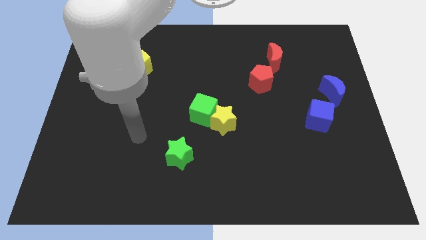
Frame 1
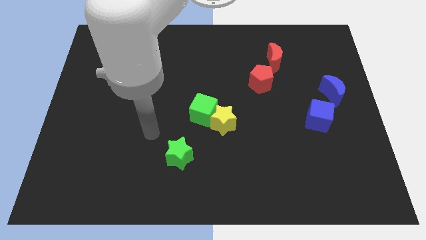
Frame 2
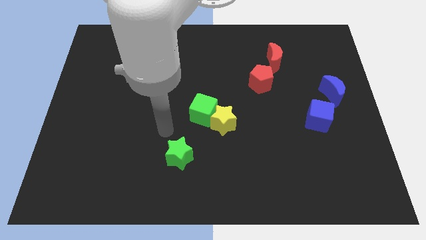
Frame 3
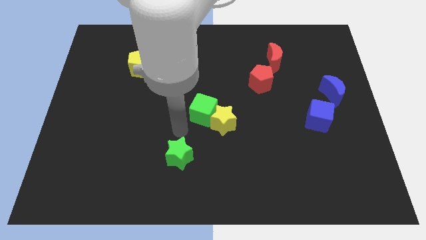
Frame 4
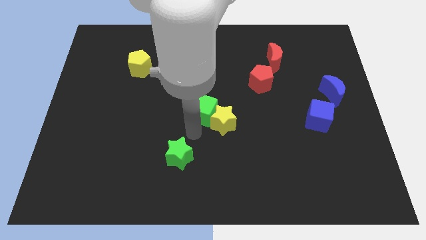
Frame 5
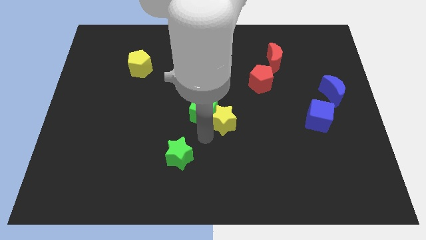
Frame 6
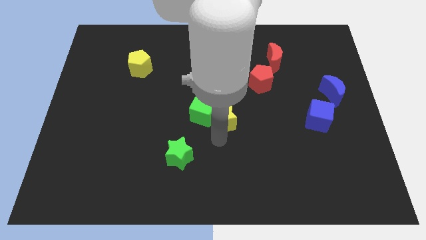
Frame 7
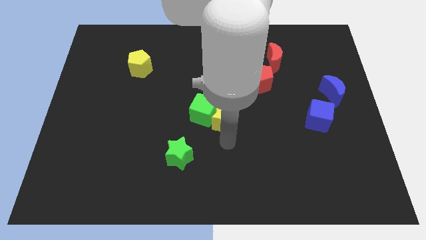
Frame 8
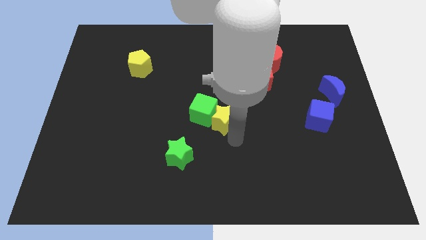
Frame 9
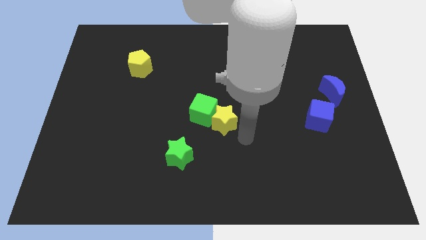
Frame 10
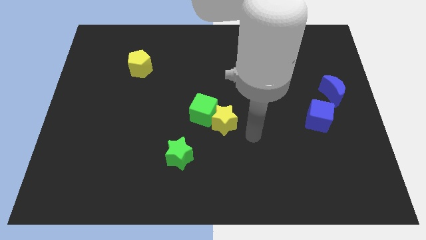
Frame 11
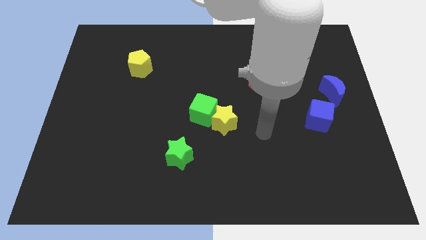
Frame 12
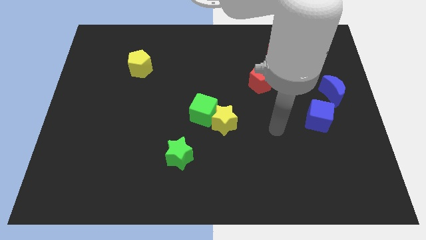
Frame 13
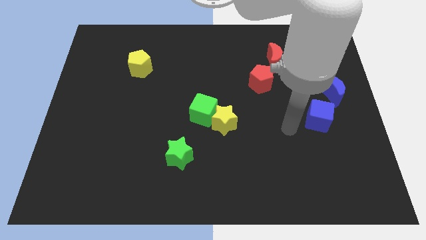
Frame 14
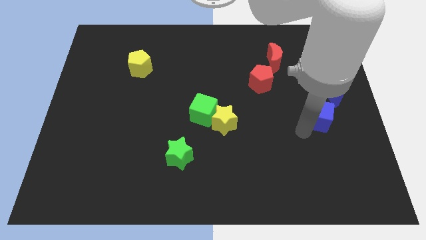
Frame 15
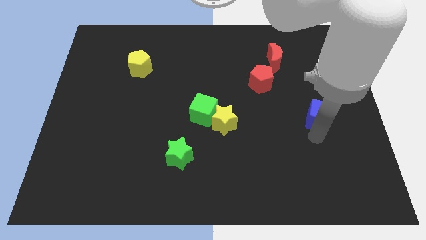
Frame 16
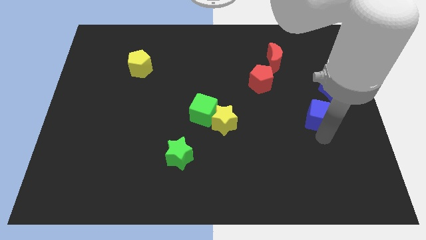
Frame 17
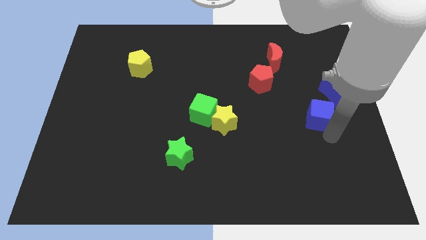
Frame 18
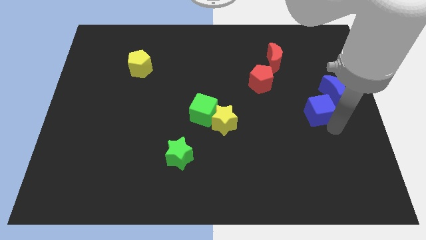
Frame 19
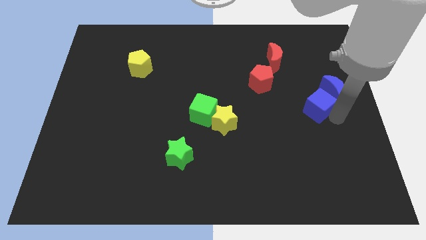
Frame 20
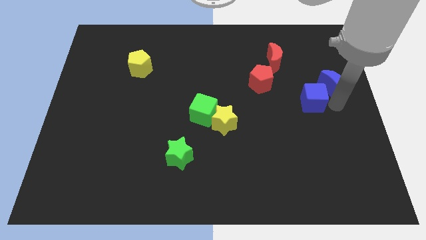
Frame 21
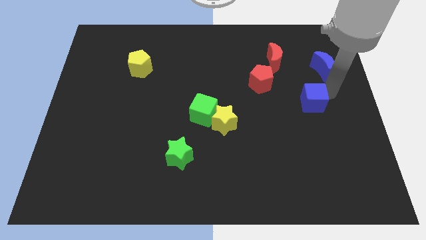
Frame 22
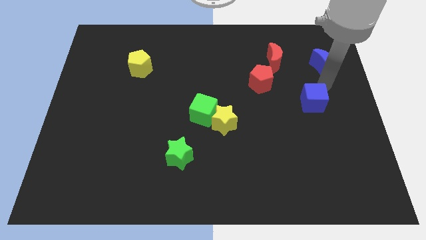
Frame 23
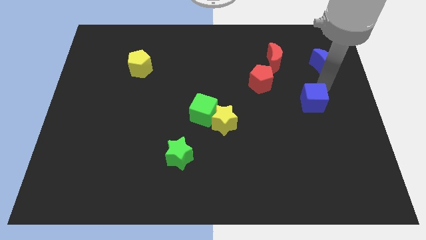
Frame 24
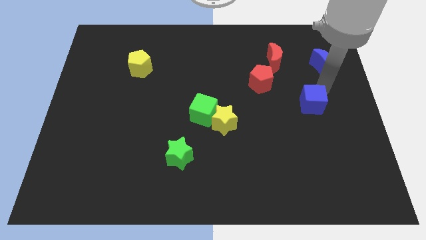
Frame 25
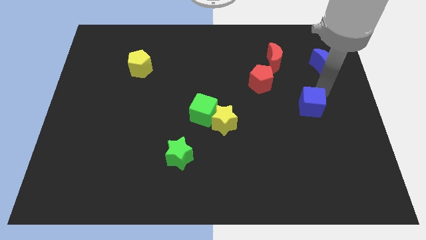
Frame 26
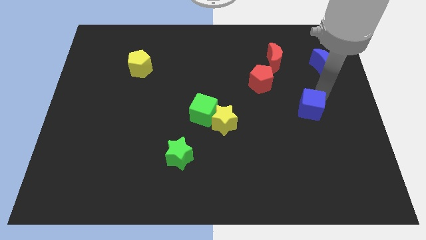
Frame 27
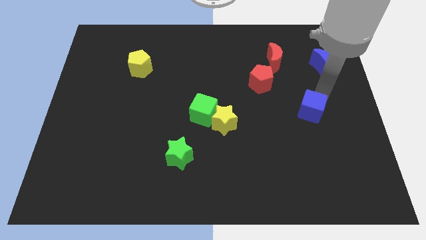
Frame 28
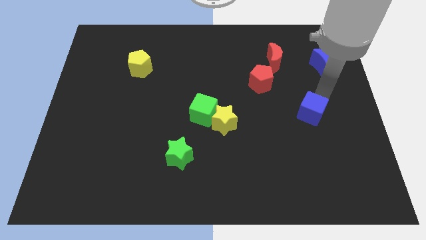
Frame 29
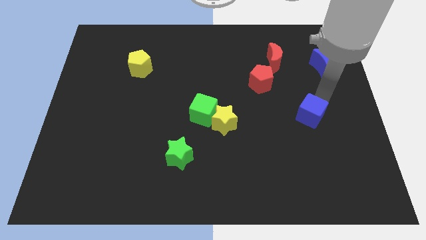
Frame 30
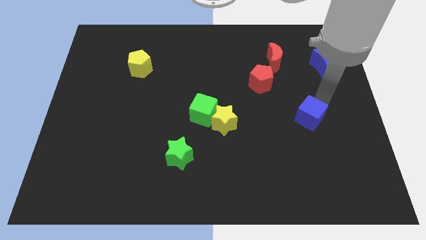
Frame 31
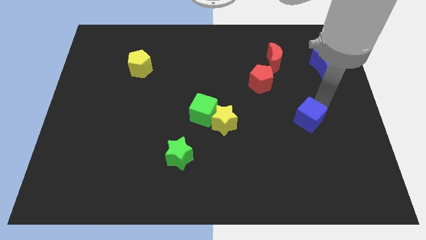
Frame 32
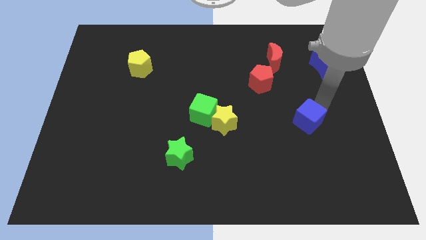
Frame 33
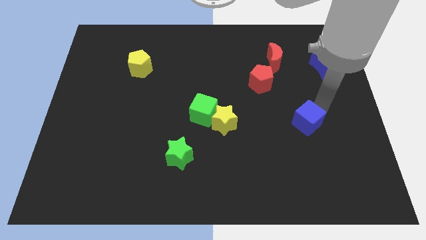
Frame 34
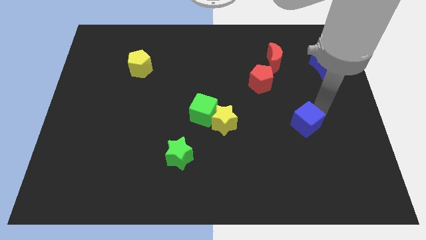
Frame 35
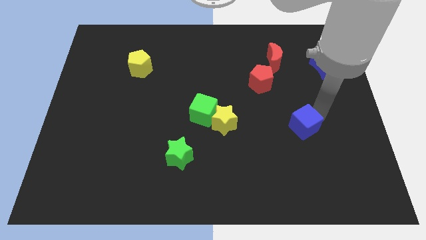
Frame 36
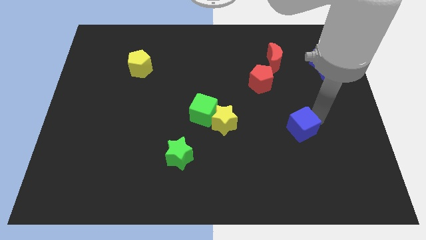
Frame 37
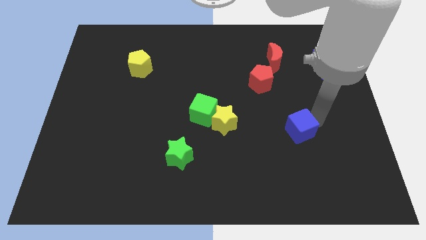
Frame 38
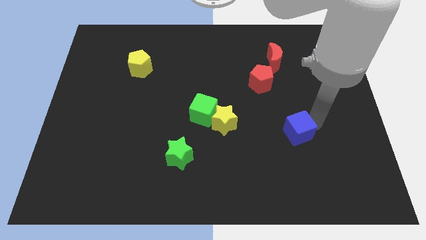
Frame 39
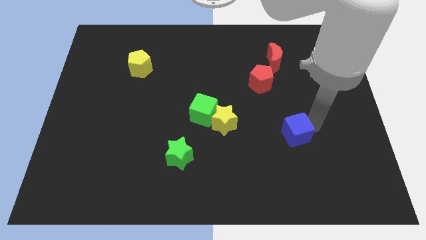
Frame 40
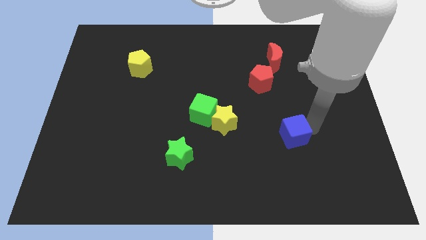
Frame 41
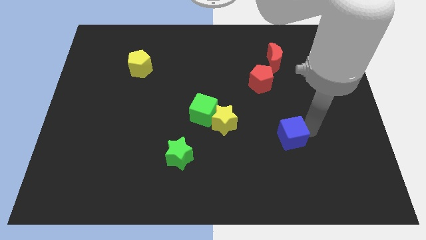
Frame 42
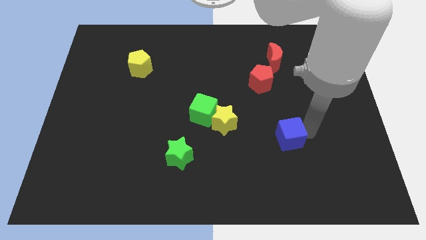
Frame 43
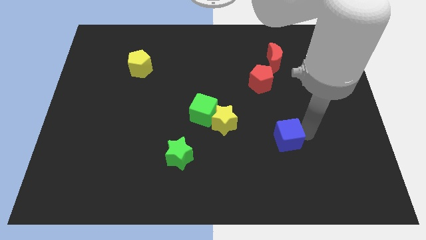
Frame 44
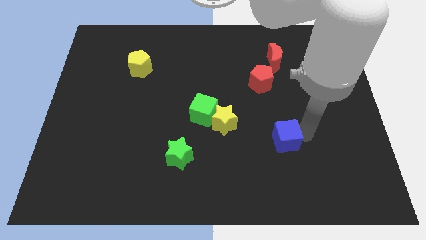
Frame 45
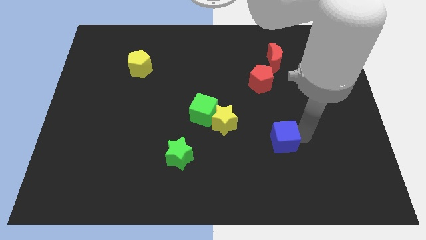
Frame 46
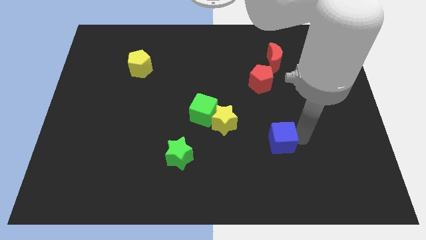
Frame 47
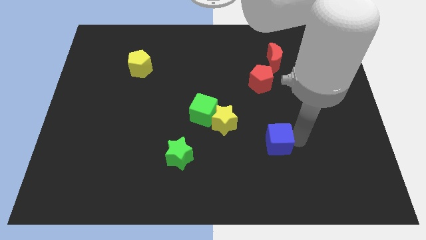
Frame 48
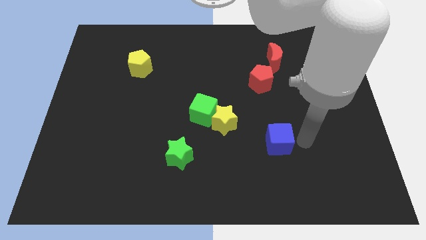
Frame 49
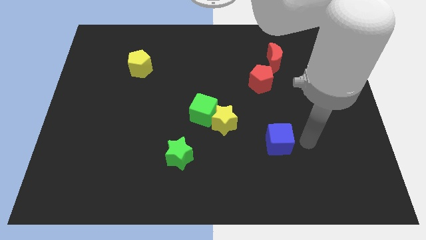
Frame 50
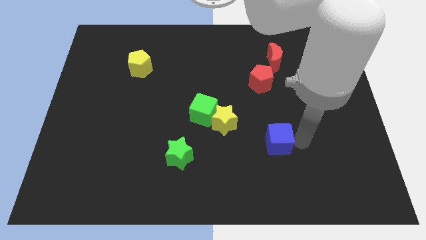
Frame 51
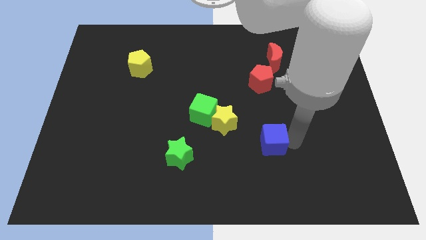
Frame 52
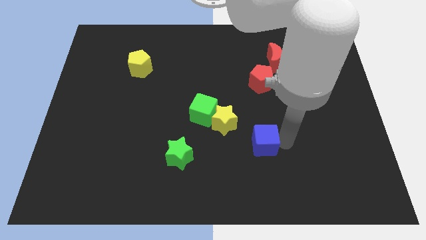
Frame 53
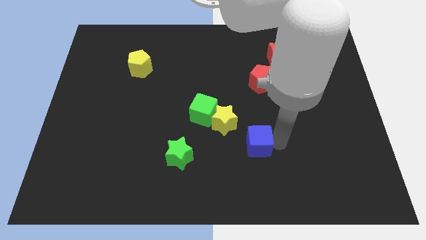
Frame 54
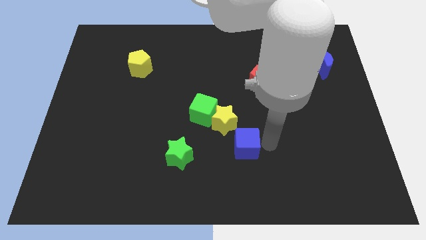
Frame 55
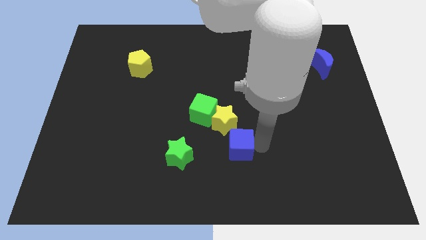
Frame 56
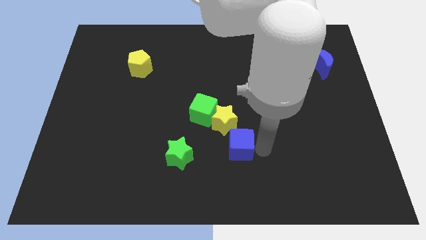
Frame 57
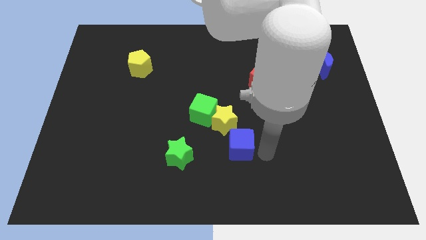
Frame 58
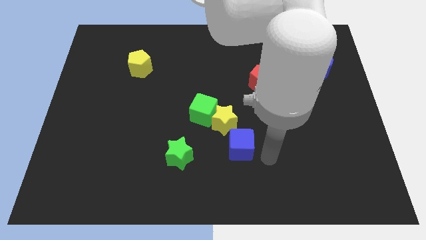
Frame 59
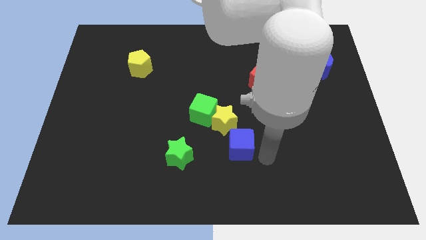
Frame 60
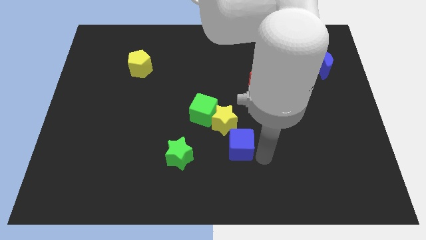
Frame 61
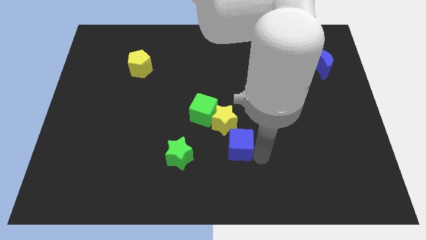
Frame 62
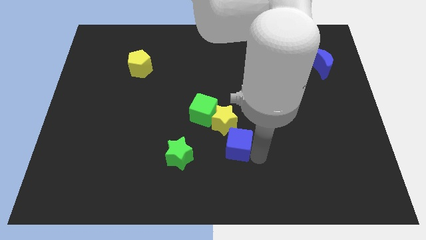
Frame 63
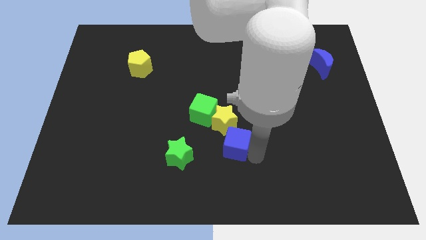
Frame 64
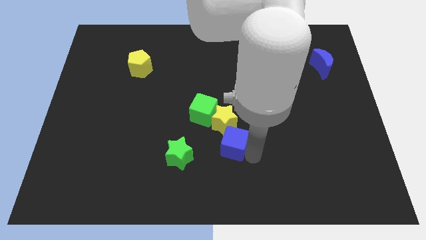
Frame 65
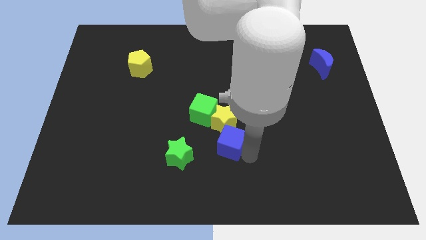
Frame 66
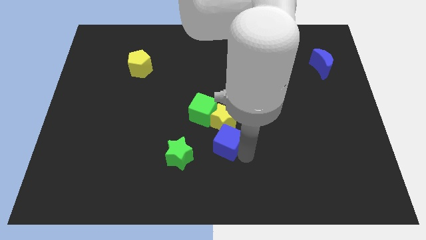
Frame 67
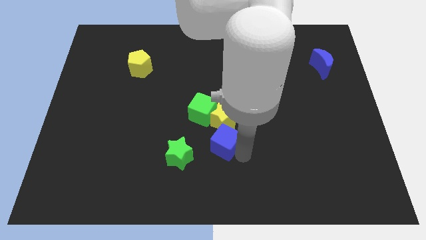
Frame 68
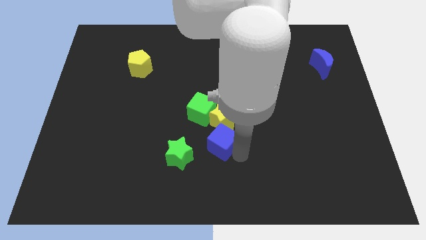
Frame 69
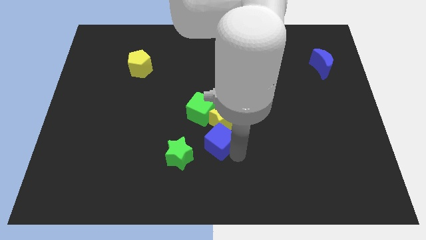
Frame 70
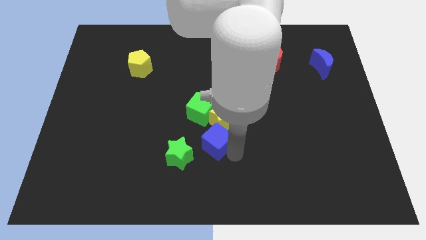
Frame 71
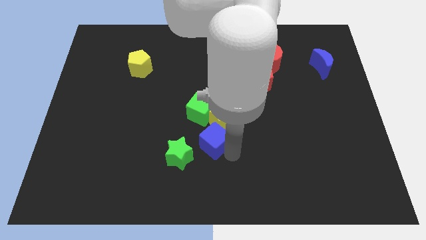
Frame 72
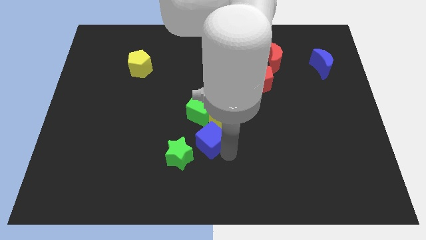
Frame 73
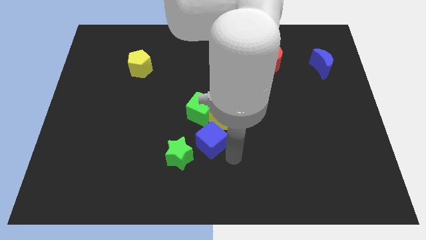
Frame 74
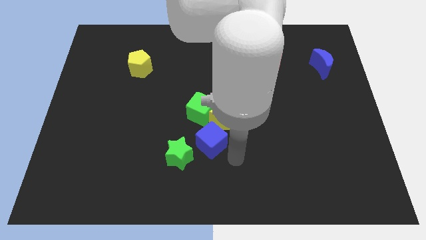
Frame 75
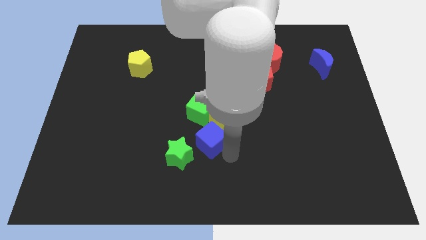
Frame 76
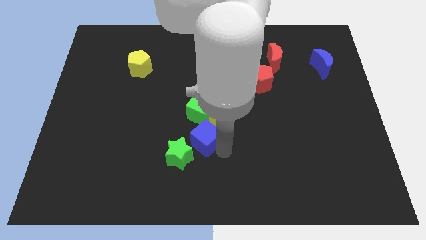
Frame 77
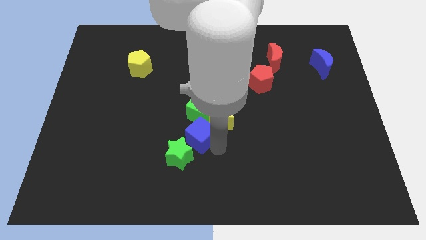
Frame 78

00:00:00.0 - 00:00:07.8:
put the blue cube left of the yellow star

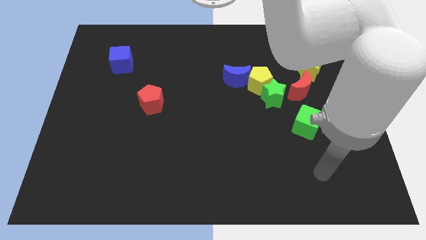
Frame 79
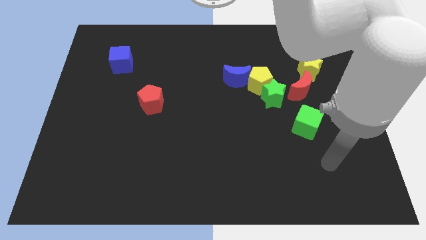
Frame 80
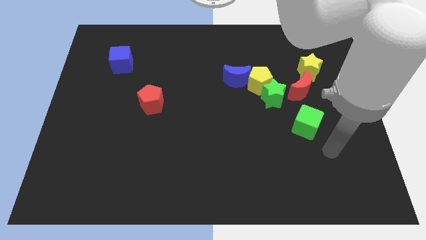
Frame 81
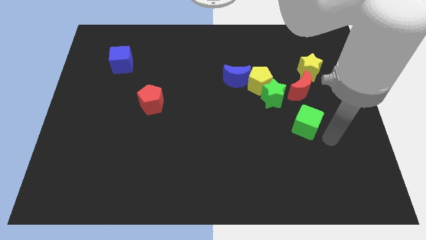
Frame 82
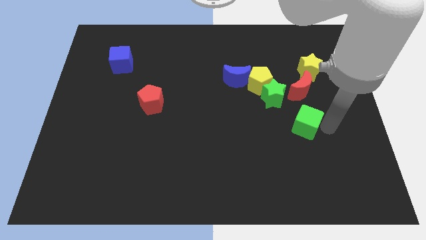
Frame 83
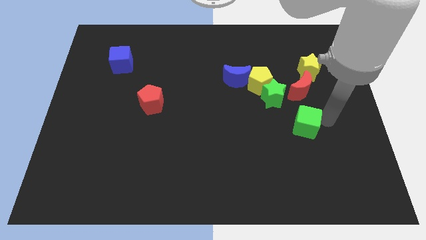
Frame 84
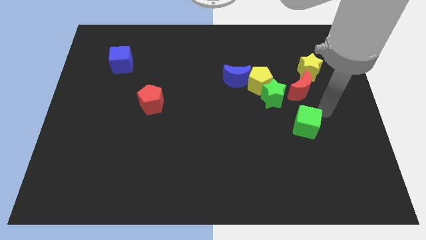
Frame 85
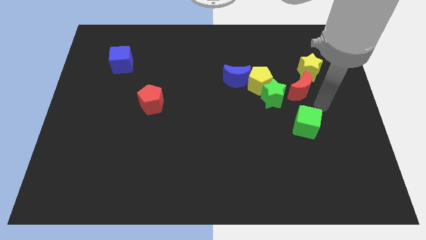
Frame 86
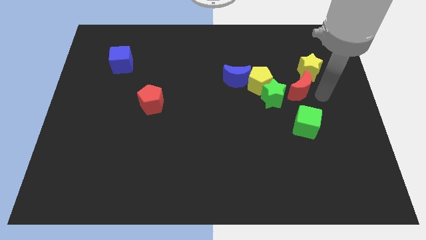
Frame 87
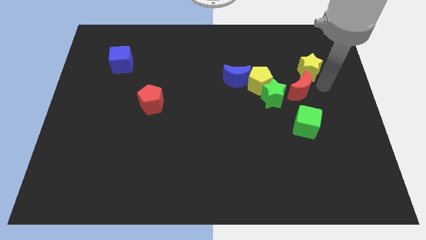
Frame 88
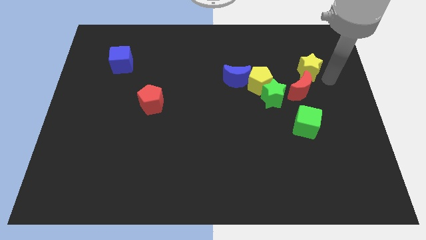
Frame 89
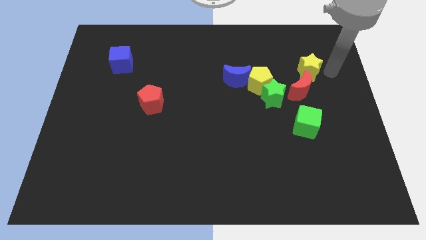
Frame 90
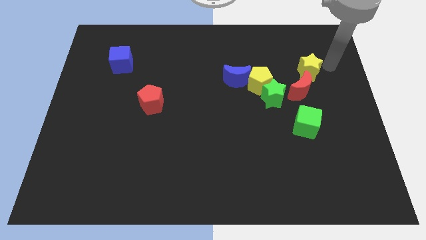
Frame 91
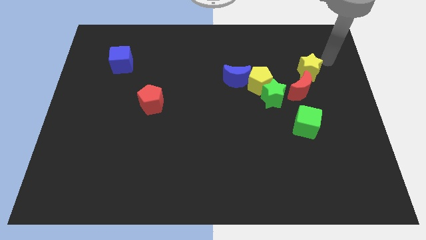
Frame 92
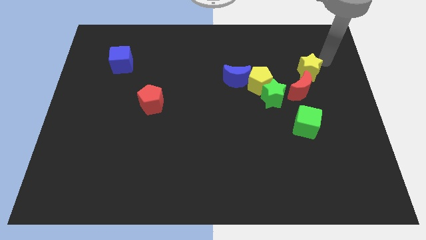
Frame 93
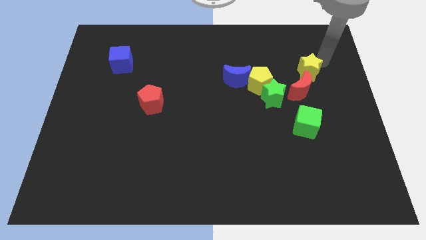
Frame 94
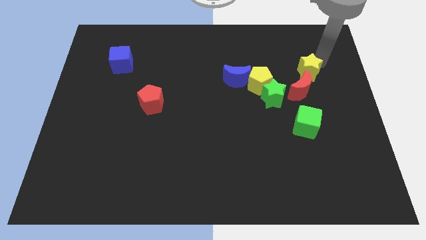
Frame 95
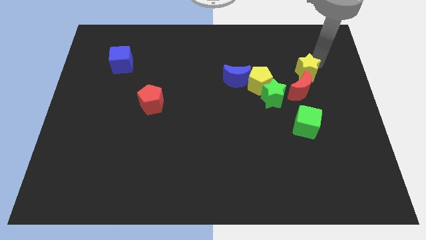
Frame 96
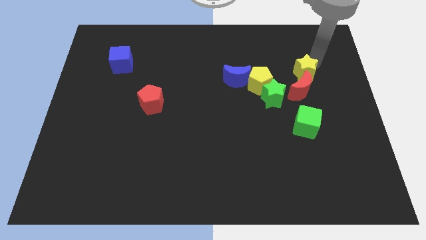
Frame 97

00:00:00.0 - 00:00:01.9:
push the yellow star to the top right of the green star
